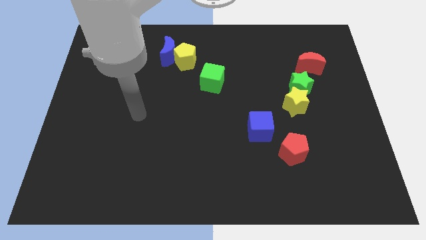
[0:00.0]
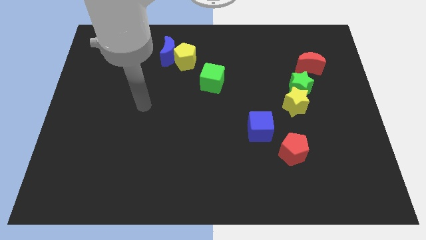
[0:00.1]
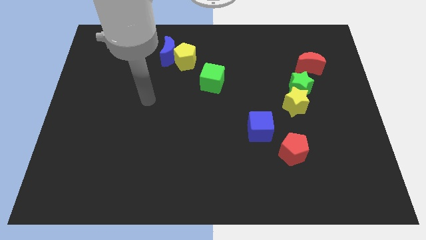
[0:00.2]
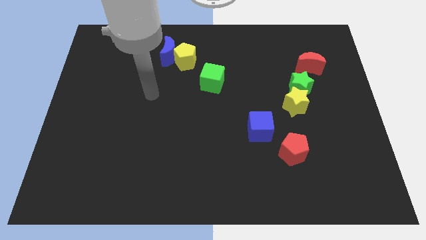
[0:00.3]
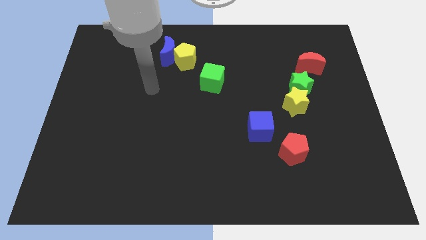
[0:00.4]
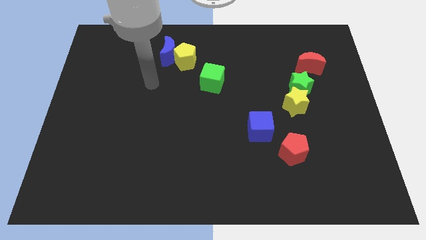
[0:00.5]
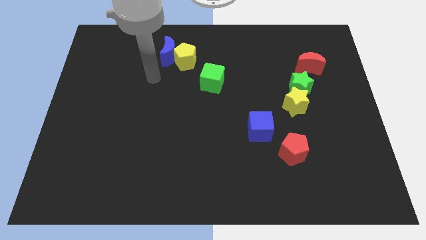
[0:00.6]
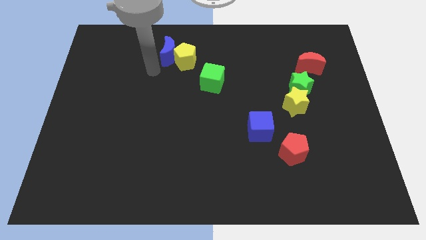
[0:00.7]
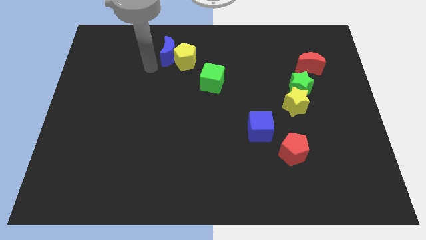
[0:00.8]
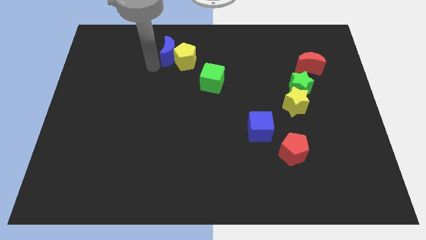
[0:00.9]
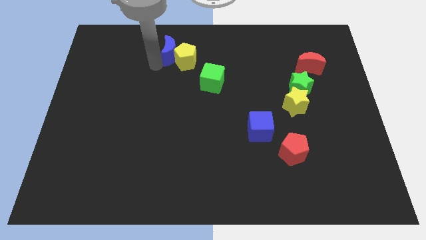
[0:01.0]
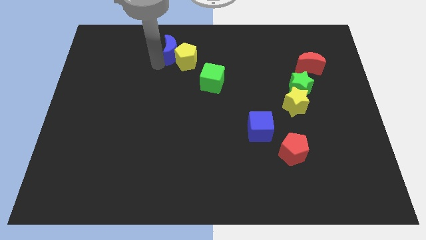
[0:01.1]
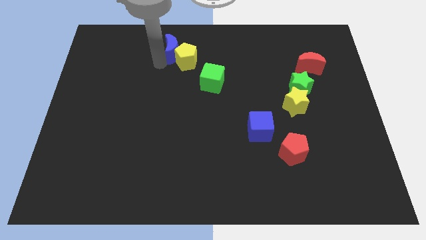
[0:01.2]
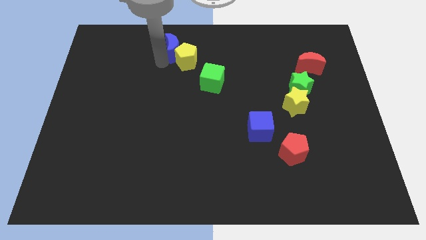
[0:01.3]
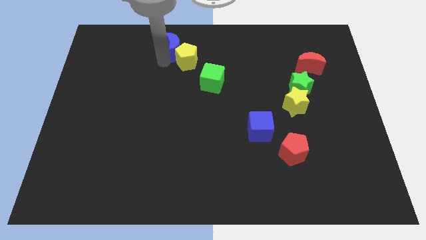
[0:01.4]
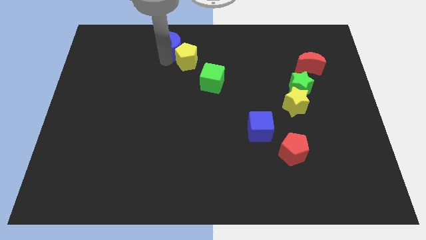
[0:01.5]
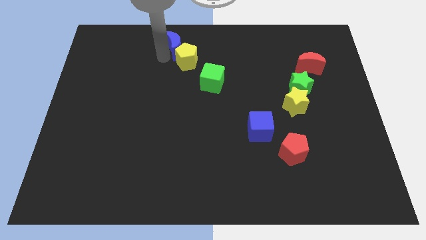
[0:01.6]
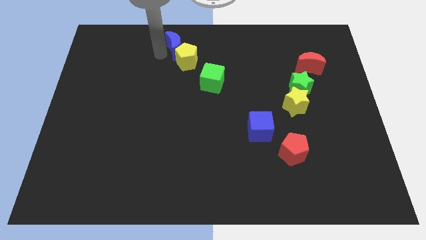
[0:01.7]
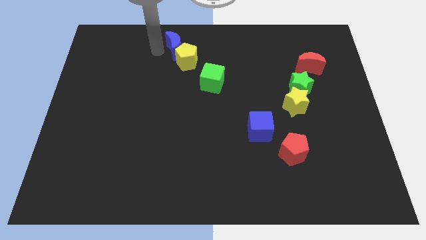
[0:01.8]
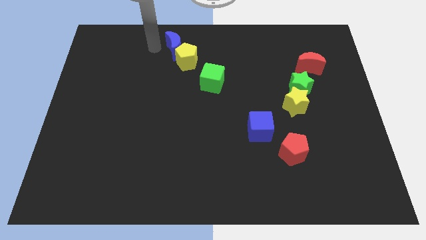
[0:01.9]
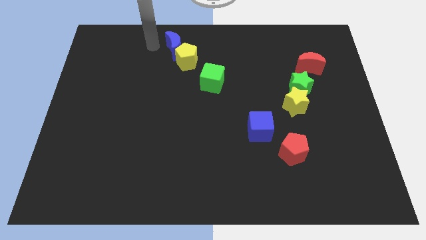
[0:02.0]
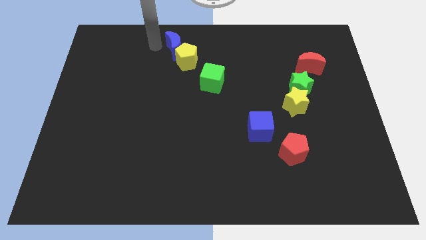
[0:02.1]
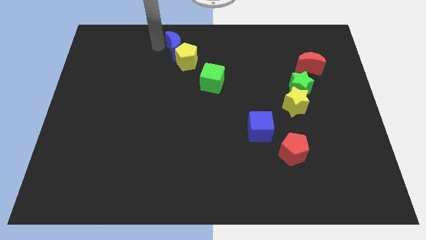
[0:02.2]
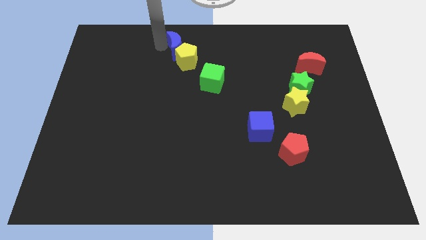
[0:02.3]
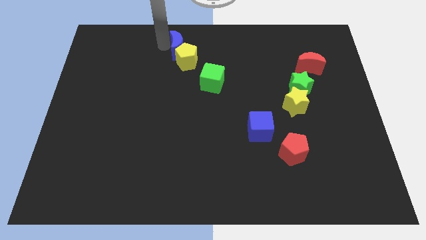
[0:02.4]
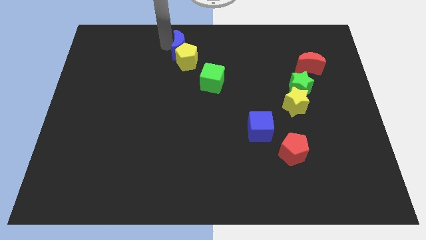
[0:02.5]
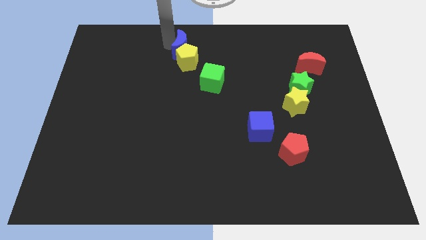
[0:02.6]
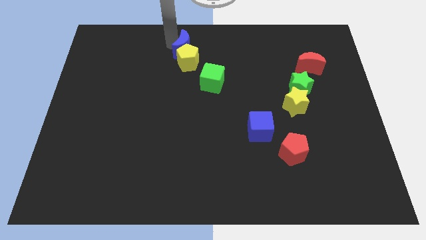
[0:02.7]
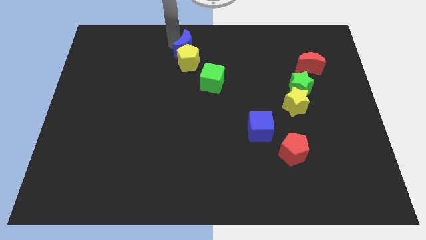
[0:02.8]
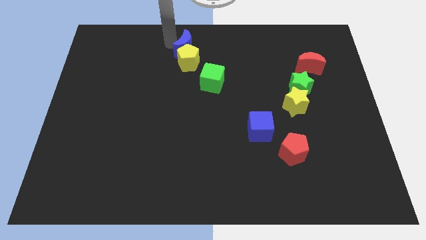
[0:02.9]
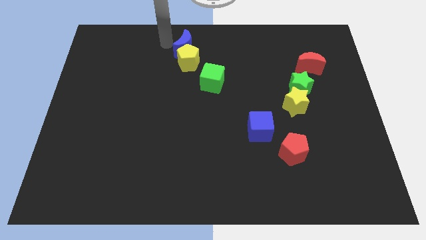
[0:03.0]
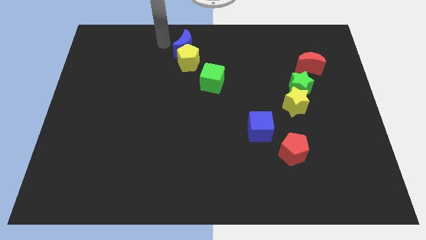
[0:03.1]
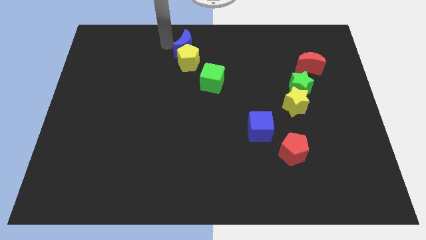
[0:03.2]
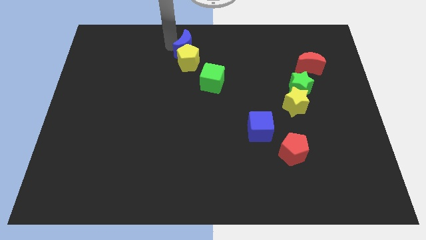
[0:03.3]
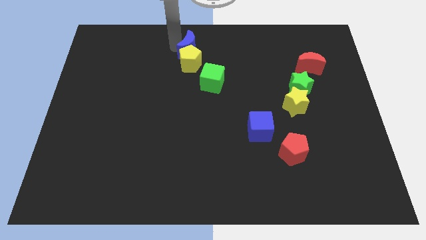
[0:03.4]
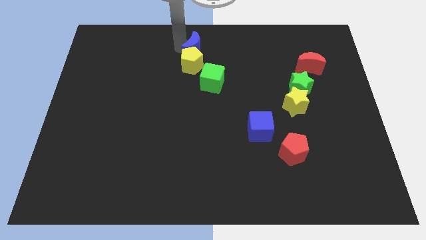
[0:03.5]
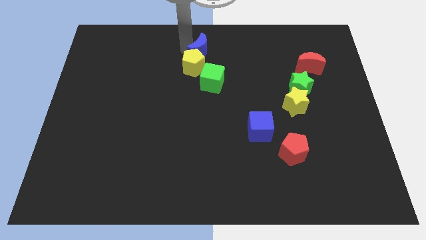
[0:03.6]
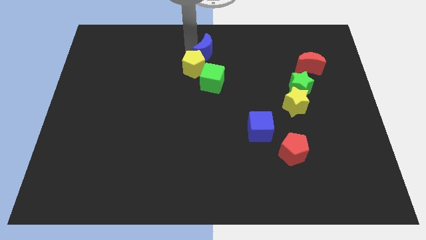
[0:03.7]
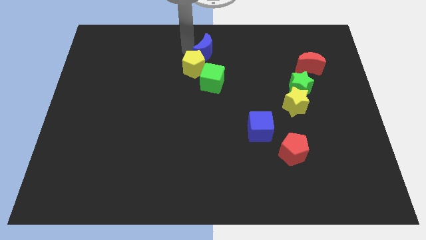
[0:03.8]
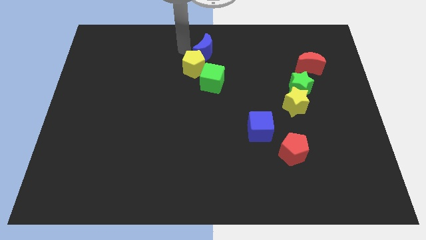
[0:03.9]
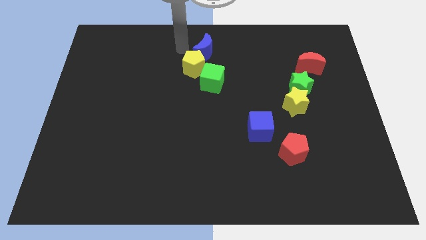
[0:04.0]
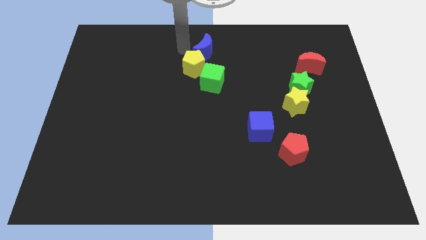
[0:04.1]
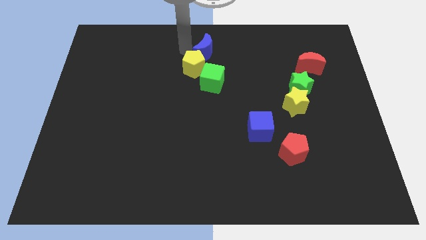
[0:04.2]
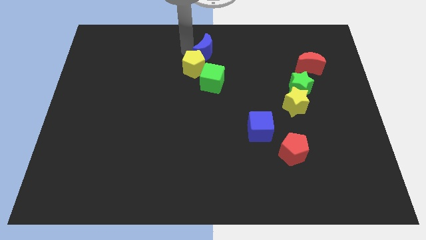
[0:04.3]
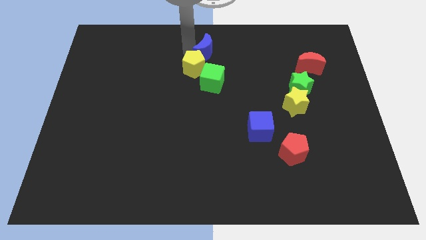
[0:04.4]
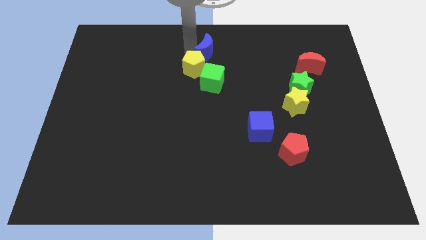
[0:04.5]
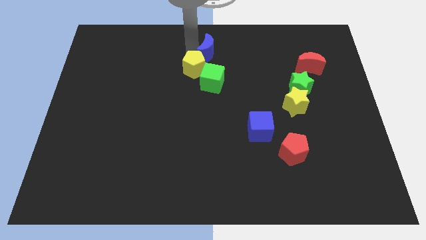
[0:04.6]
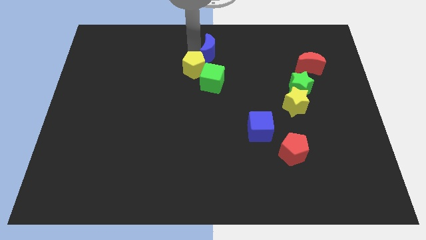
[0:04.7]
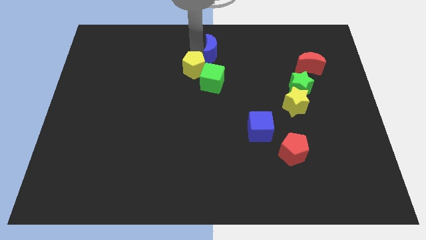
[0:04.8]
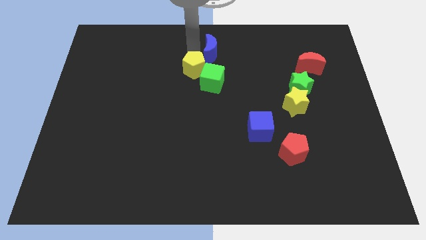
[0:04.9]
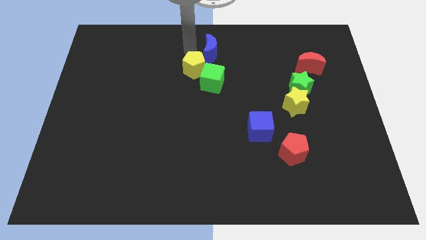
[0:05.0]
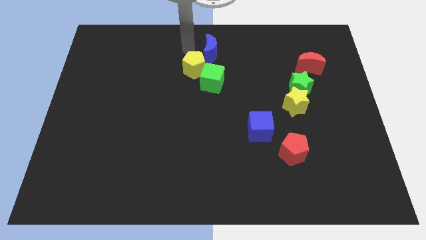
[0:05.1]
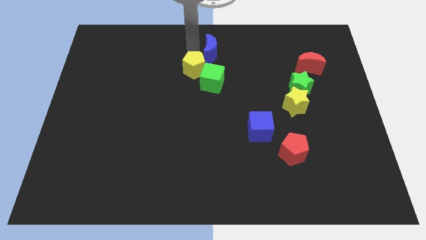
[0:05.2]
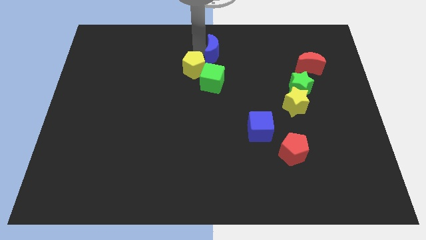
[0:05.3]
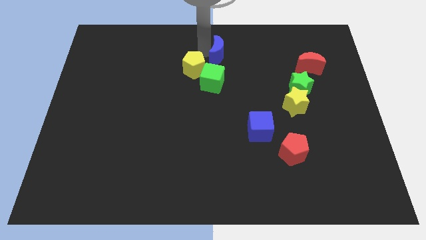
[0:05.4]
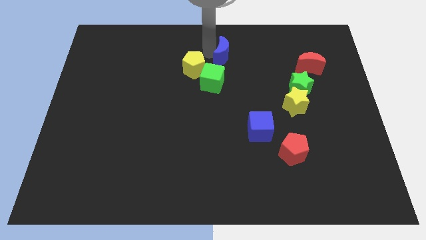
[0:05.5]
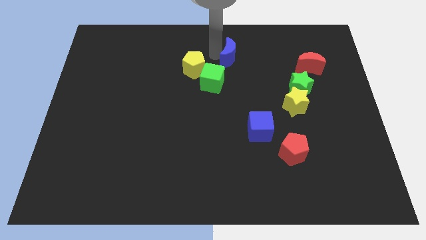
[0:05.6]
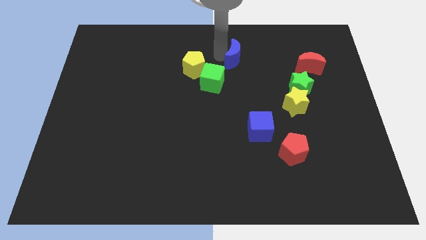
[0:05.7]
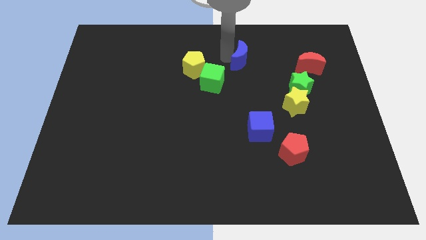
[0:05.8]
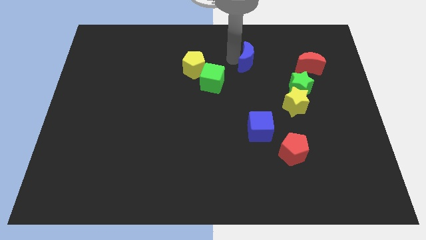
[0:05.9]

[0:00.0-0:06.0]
slide the blue moon to the right

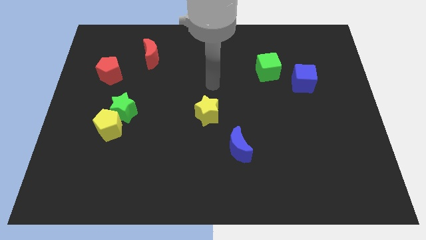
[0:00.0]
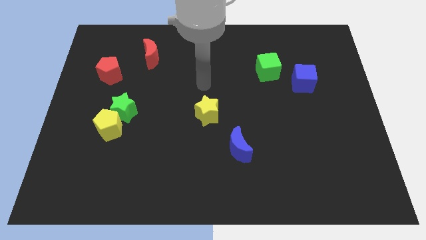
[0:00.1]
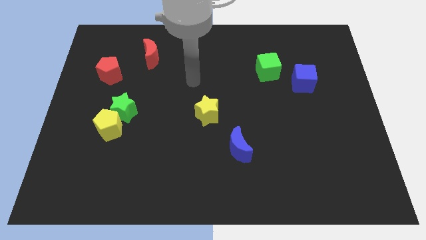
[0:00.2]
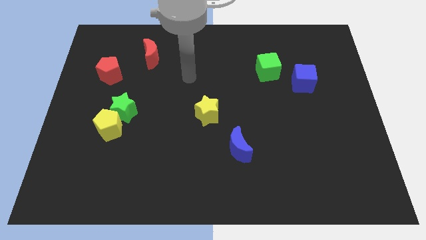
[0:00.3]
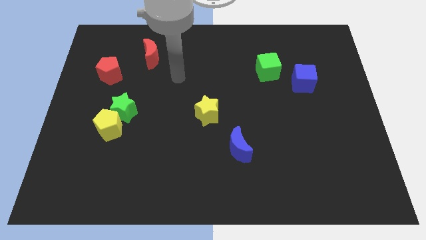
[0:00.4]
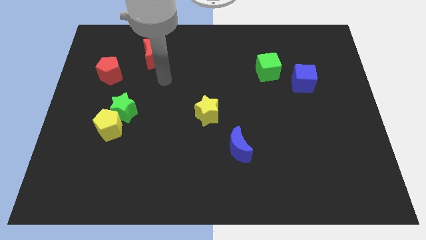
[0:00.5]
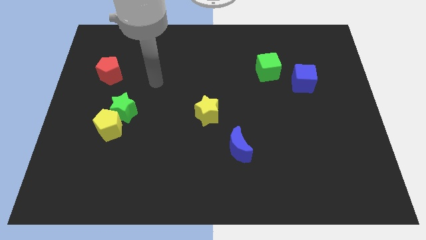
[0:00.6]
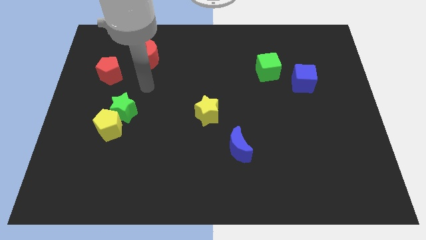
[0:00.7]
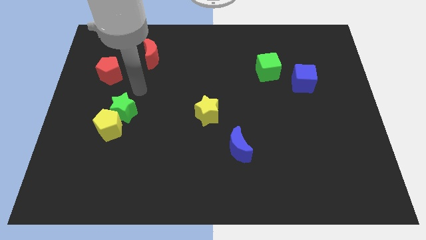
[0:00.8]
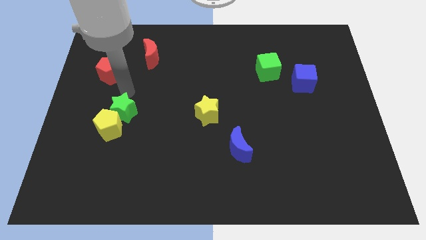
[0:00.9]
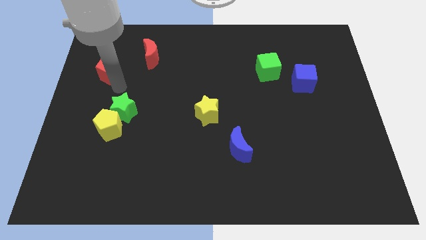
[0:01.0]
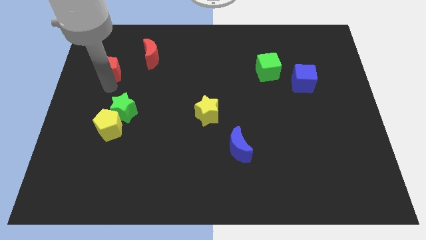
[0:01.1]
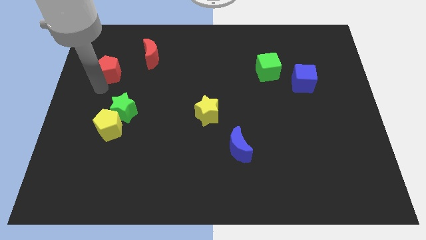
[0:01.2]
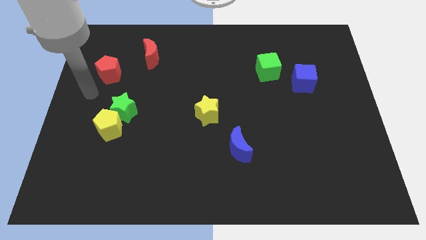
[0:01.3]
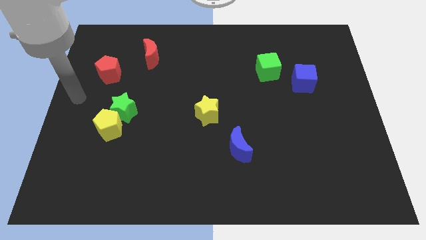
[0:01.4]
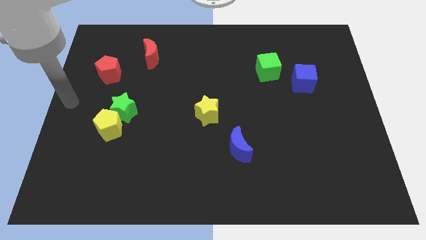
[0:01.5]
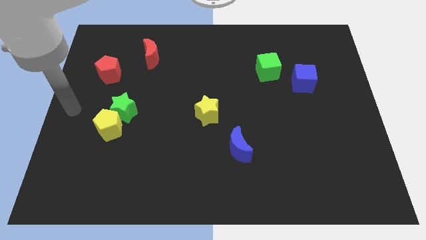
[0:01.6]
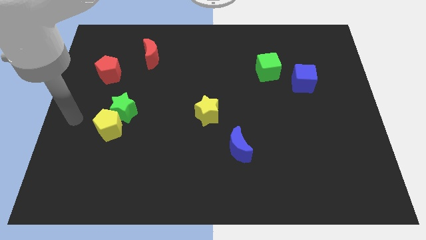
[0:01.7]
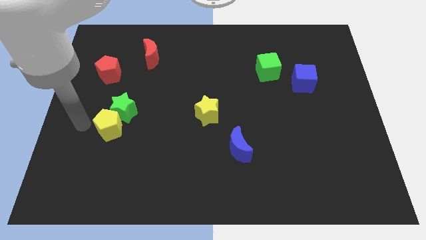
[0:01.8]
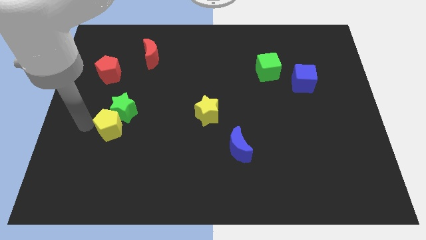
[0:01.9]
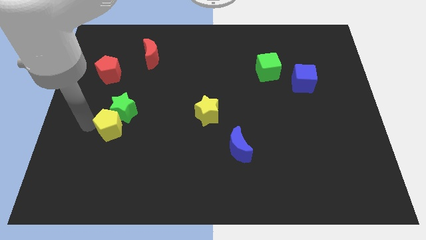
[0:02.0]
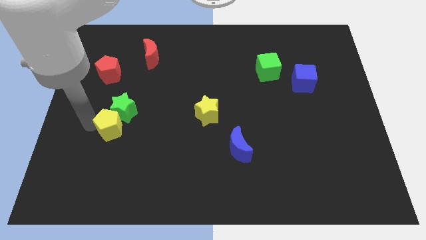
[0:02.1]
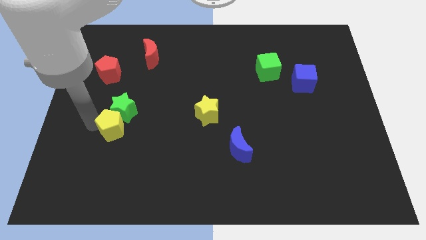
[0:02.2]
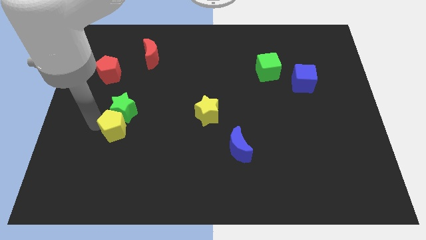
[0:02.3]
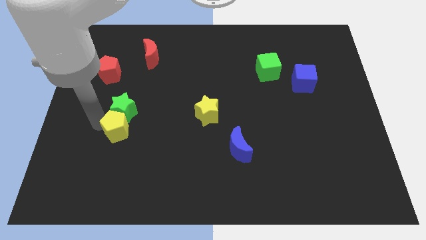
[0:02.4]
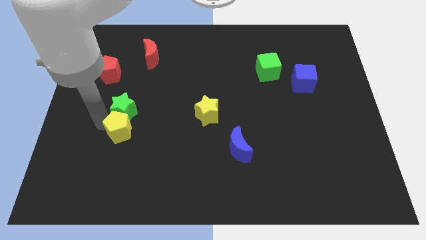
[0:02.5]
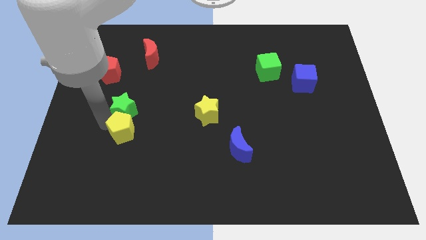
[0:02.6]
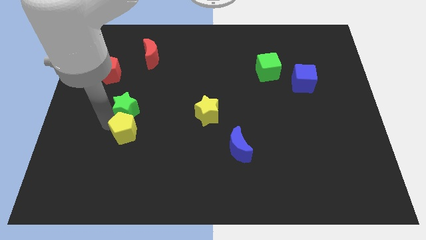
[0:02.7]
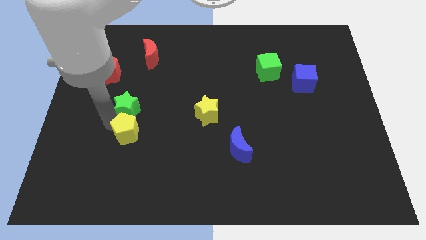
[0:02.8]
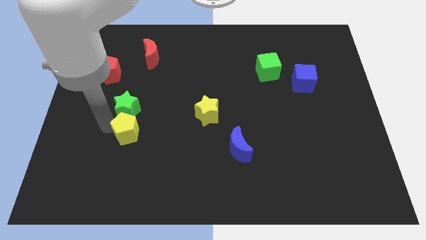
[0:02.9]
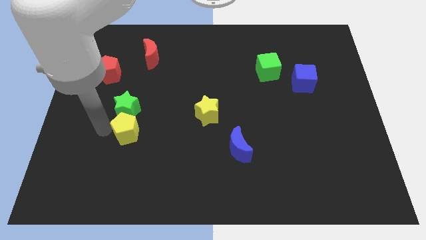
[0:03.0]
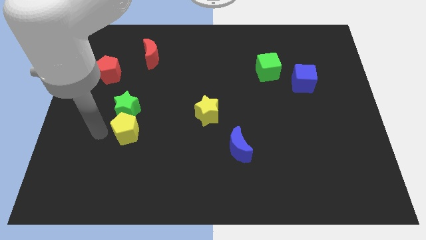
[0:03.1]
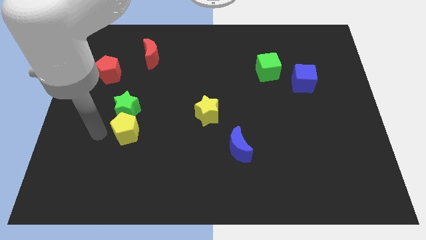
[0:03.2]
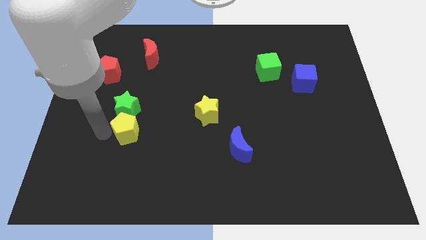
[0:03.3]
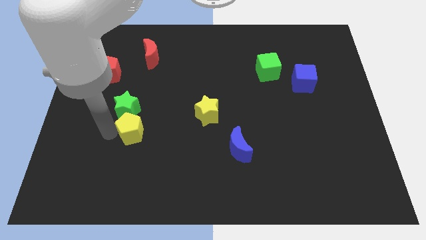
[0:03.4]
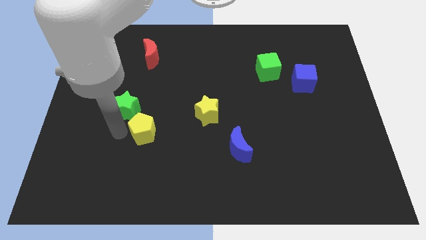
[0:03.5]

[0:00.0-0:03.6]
move the yellow pentagon to the right slightly
